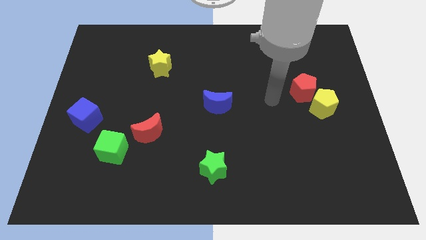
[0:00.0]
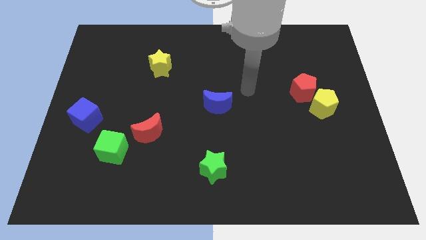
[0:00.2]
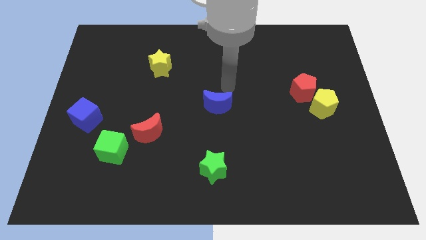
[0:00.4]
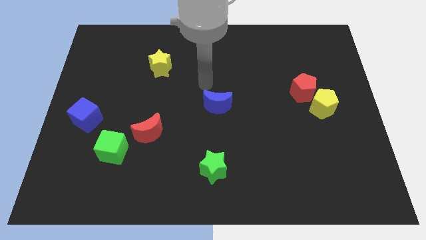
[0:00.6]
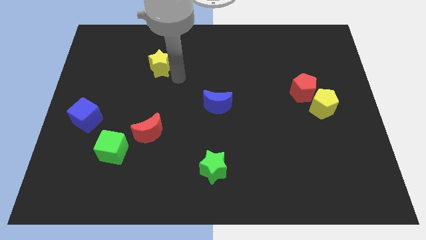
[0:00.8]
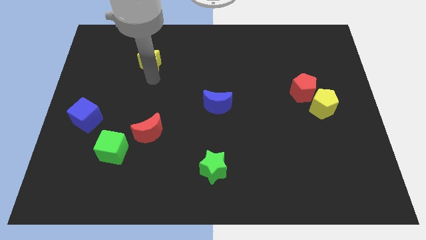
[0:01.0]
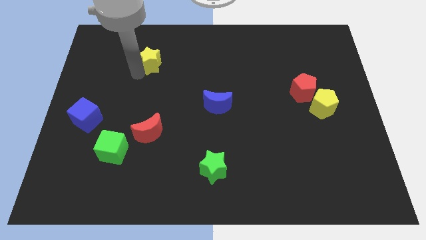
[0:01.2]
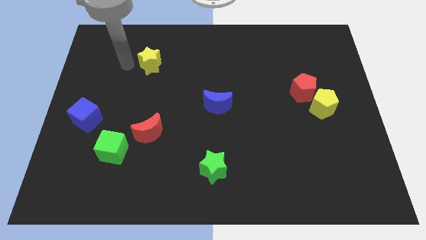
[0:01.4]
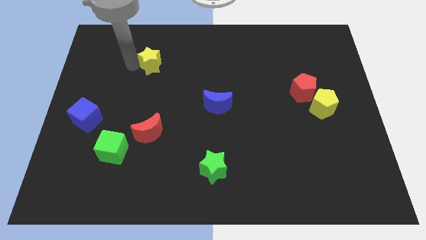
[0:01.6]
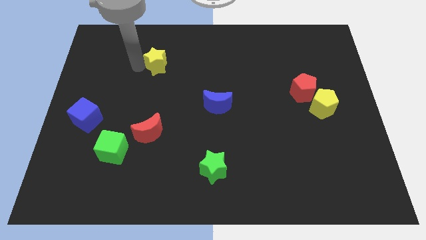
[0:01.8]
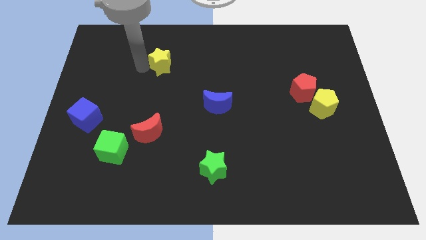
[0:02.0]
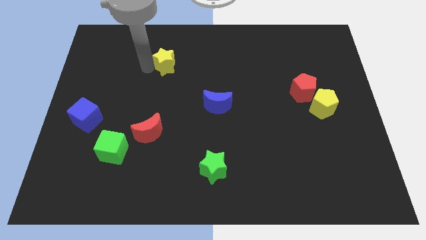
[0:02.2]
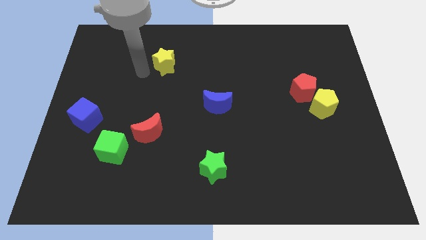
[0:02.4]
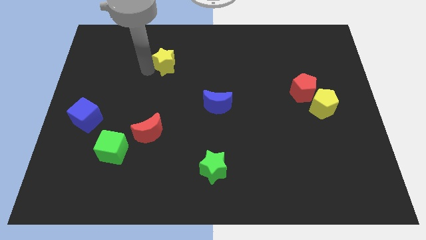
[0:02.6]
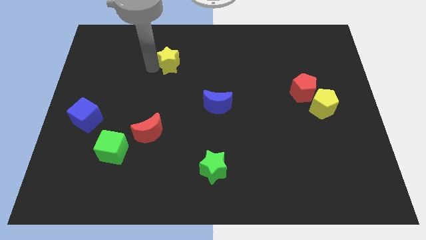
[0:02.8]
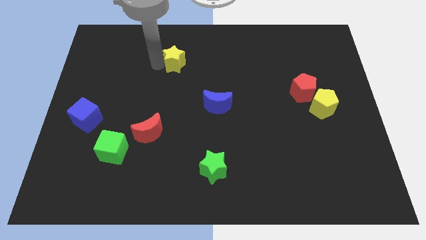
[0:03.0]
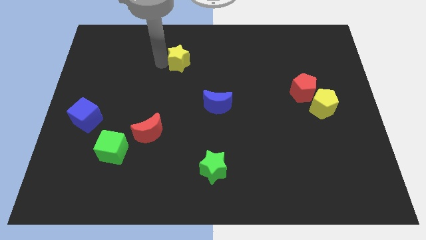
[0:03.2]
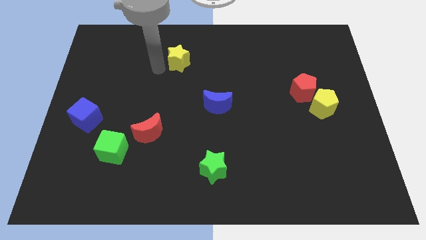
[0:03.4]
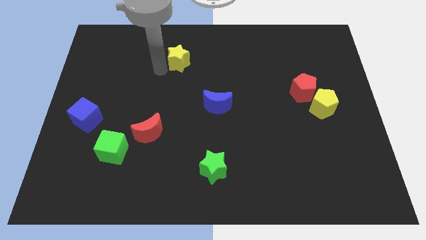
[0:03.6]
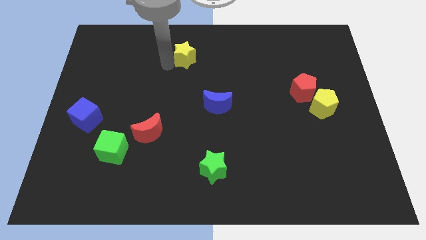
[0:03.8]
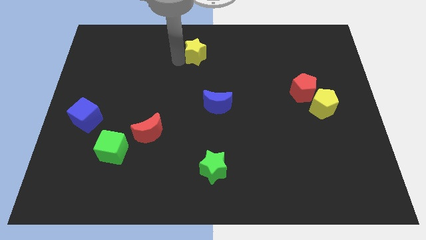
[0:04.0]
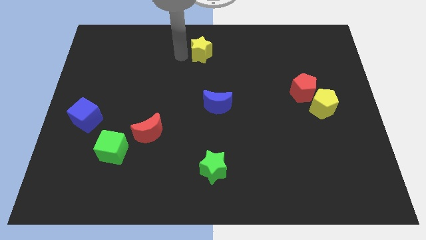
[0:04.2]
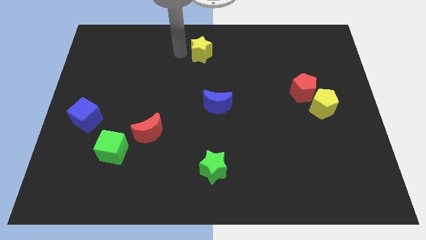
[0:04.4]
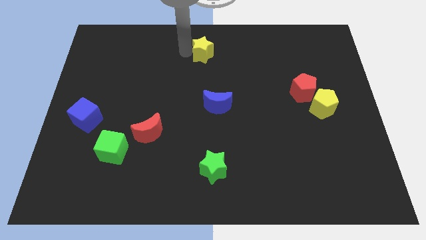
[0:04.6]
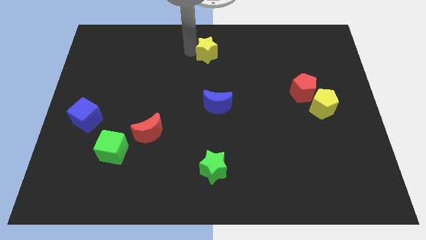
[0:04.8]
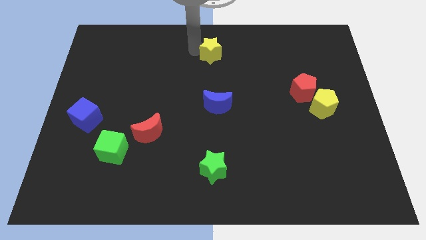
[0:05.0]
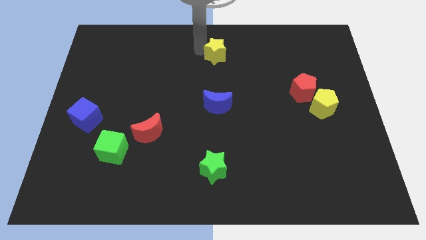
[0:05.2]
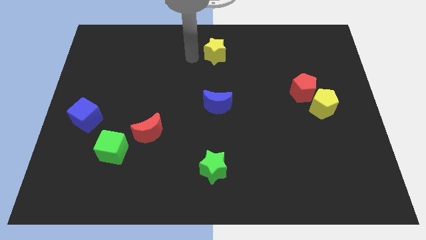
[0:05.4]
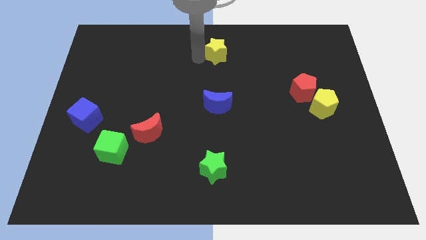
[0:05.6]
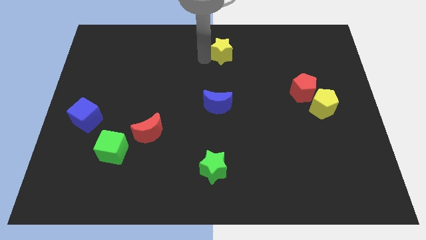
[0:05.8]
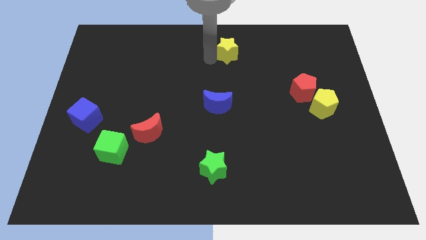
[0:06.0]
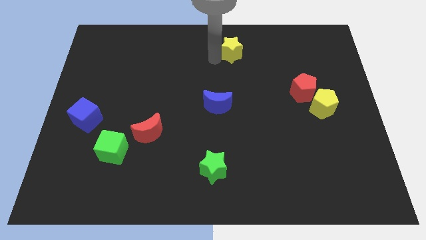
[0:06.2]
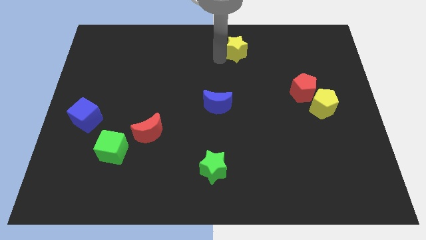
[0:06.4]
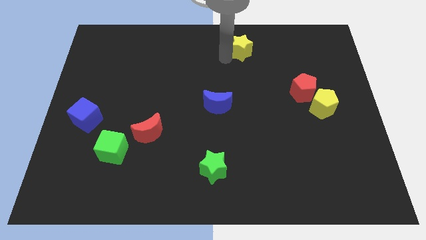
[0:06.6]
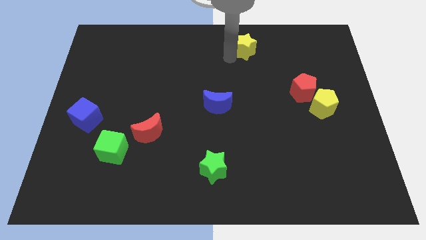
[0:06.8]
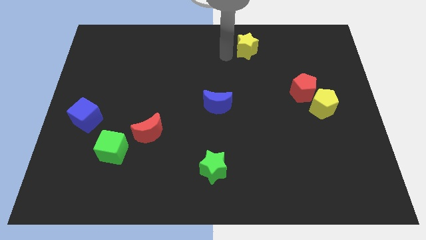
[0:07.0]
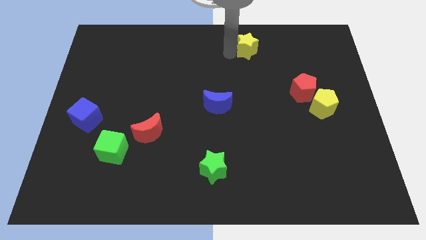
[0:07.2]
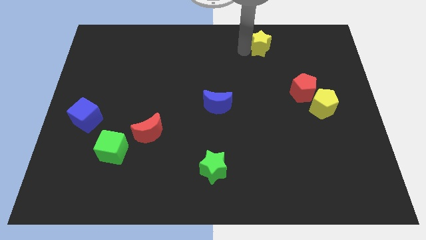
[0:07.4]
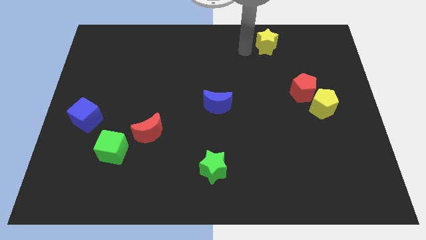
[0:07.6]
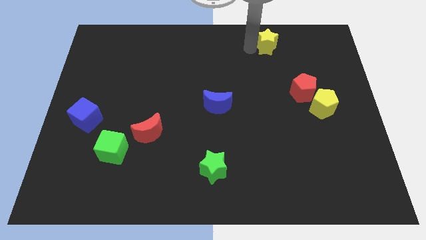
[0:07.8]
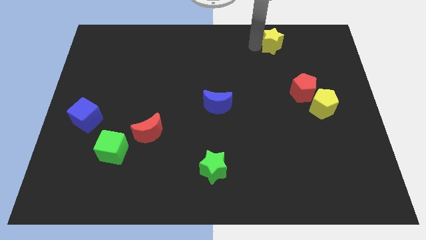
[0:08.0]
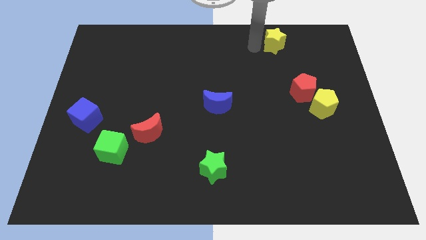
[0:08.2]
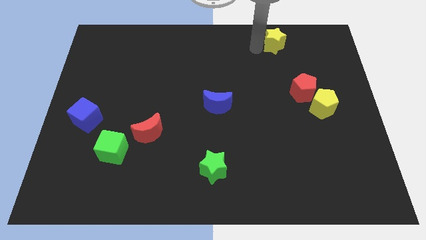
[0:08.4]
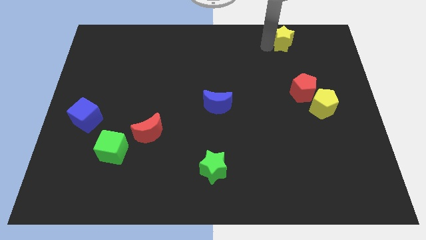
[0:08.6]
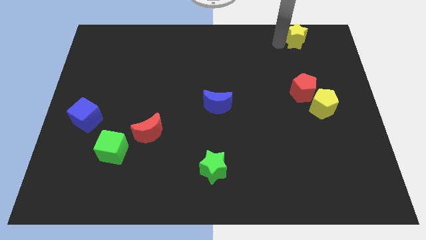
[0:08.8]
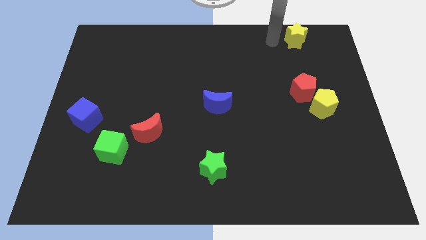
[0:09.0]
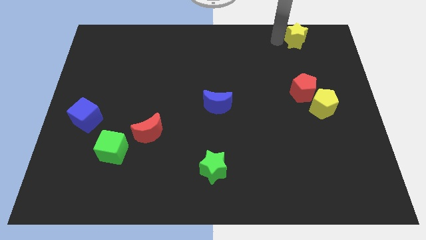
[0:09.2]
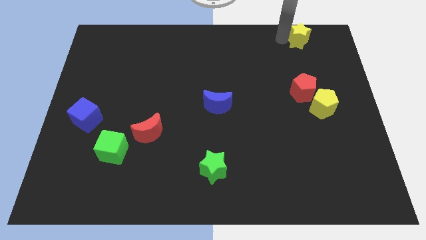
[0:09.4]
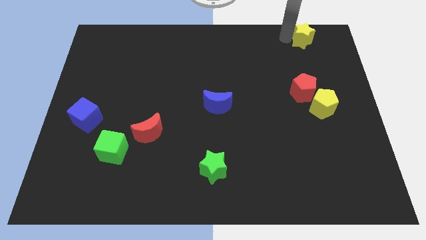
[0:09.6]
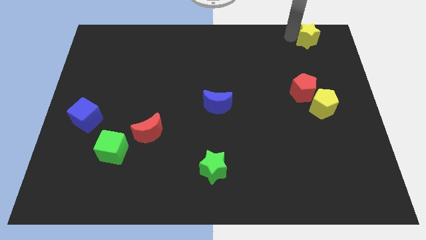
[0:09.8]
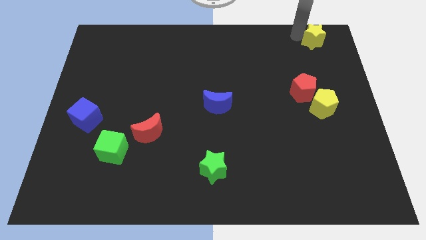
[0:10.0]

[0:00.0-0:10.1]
move the yellow star to the top right corner
